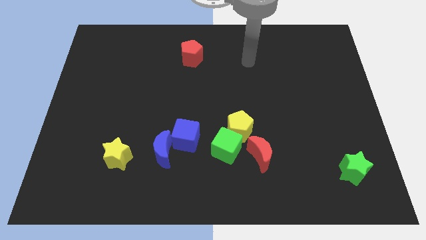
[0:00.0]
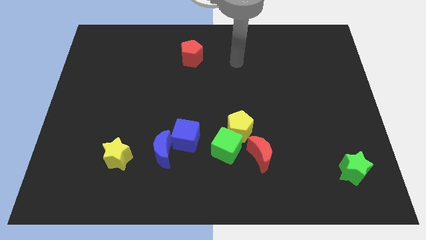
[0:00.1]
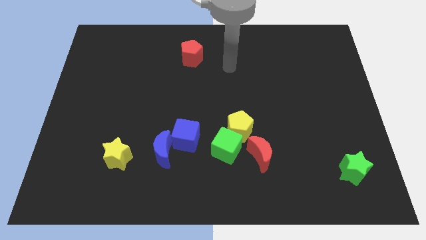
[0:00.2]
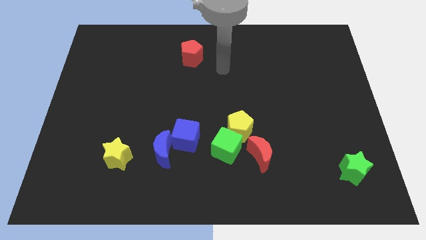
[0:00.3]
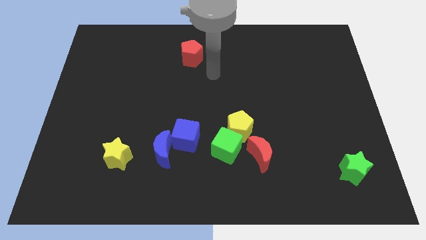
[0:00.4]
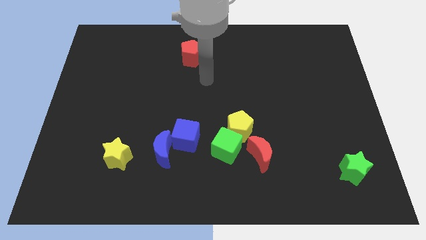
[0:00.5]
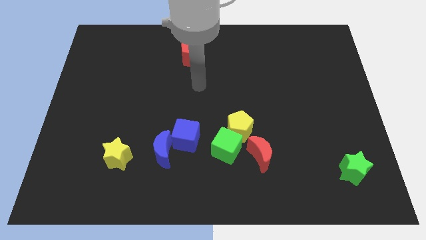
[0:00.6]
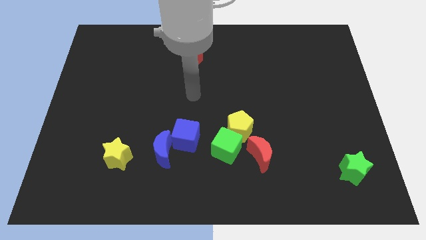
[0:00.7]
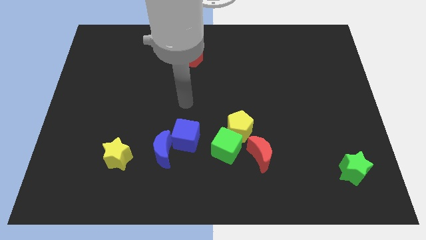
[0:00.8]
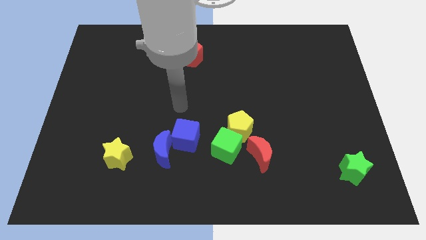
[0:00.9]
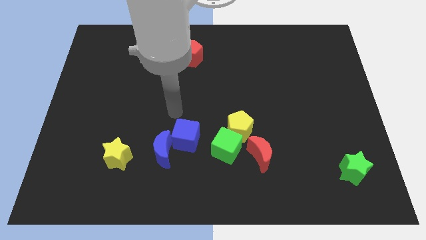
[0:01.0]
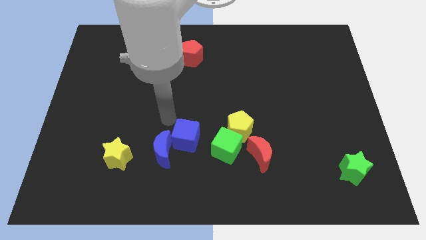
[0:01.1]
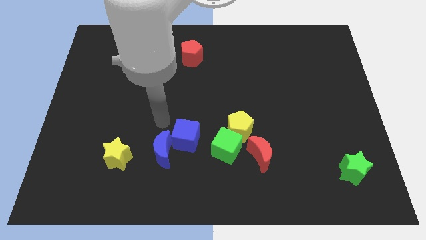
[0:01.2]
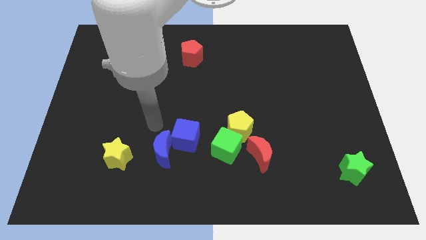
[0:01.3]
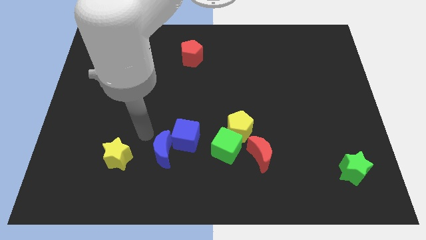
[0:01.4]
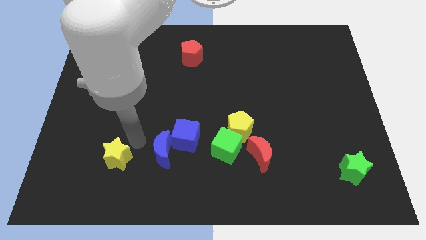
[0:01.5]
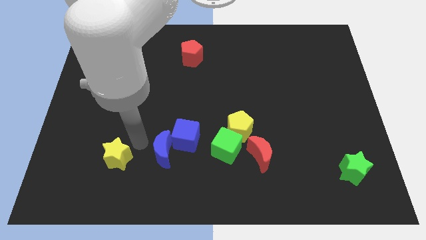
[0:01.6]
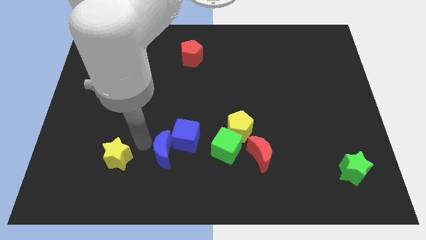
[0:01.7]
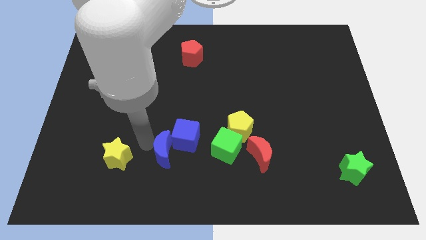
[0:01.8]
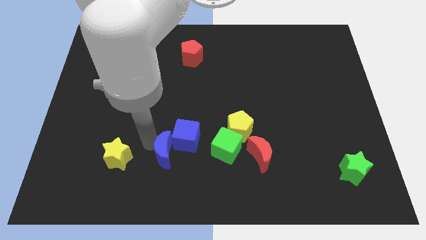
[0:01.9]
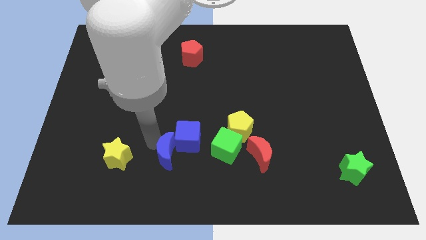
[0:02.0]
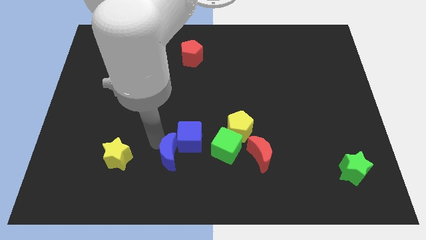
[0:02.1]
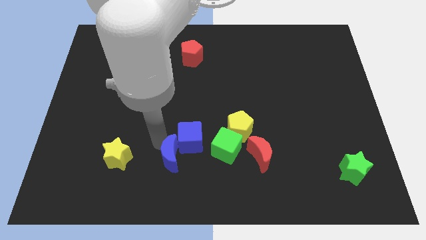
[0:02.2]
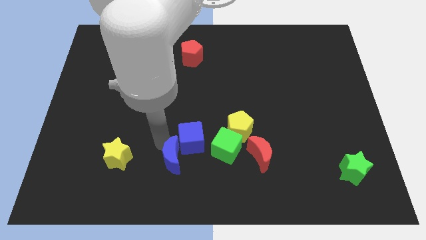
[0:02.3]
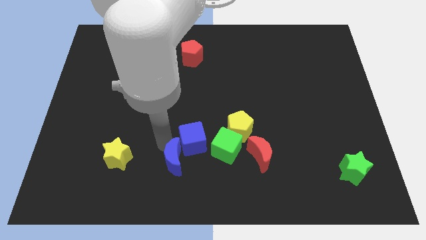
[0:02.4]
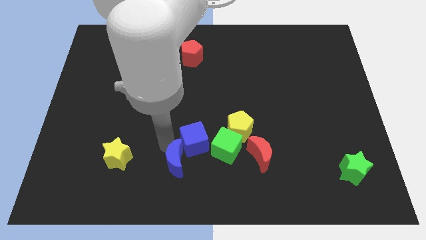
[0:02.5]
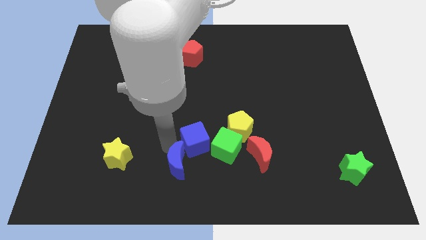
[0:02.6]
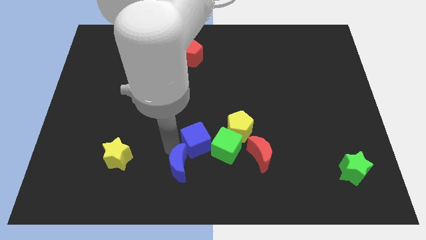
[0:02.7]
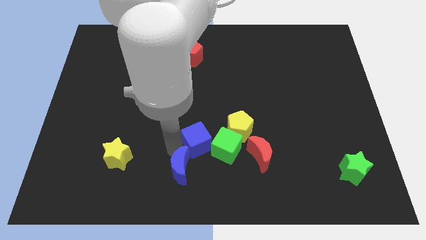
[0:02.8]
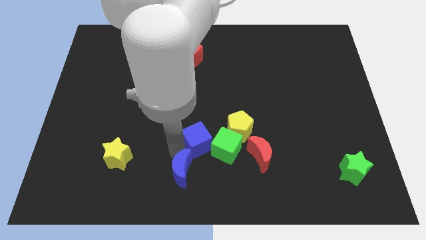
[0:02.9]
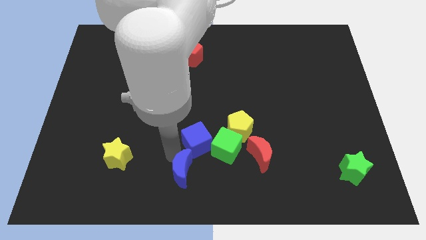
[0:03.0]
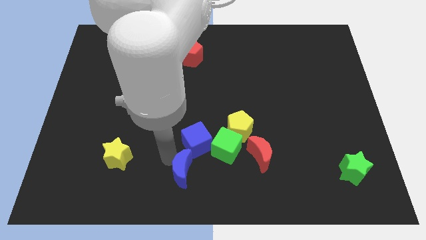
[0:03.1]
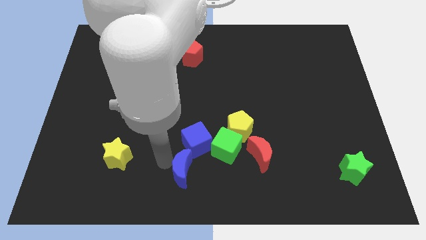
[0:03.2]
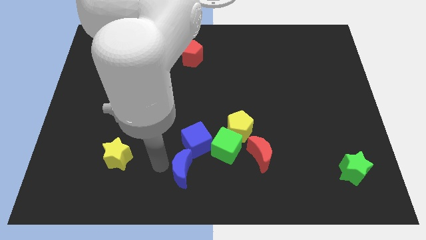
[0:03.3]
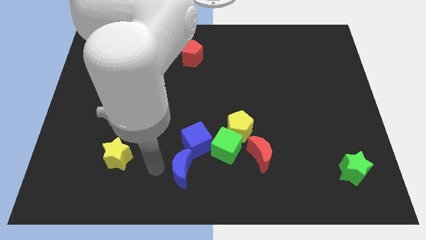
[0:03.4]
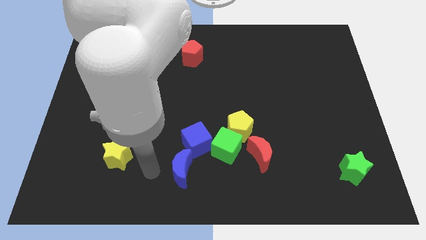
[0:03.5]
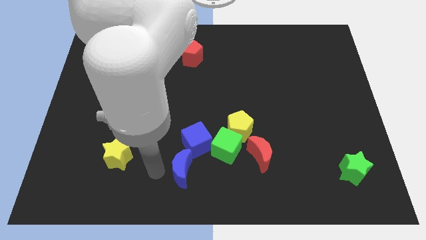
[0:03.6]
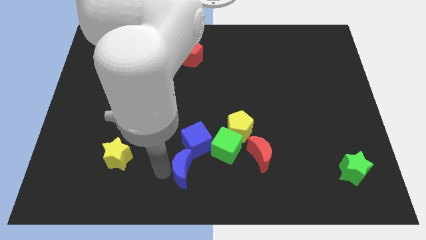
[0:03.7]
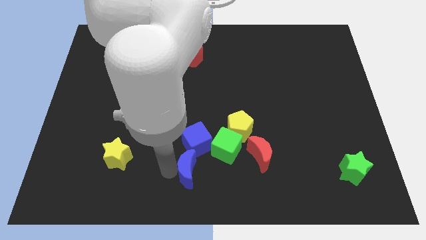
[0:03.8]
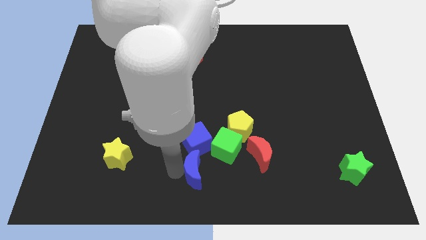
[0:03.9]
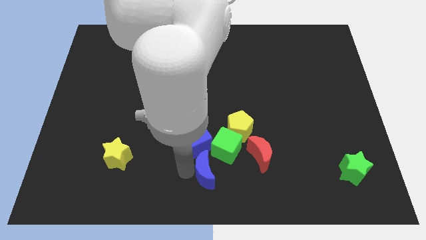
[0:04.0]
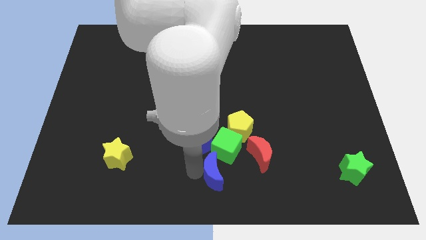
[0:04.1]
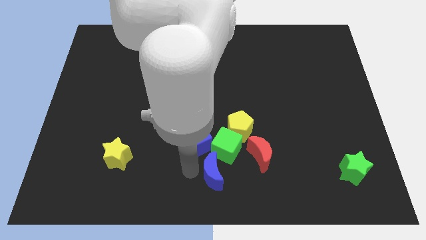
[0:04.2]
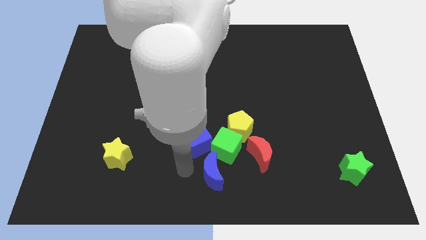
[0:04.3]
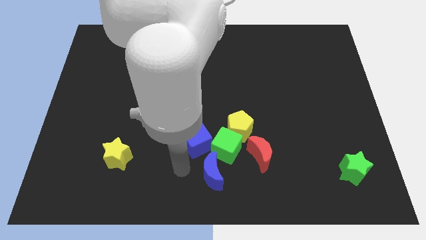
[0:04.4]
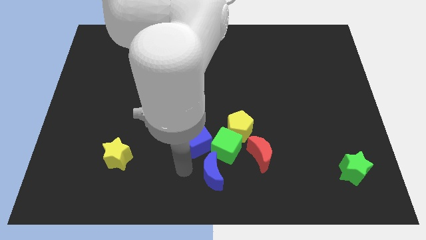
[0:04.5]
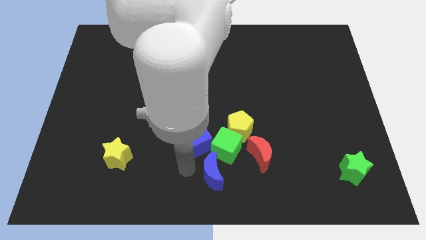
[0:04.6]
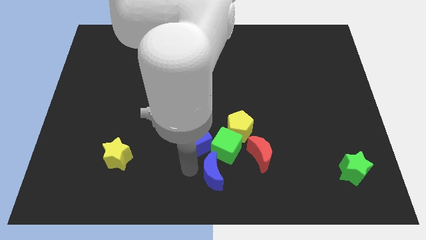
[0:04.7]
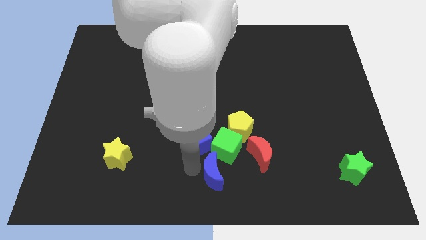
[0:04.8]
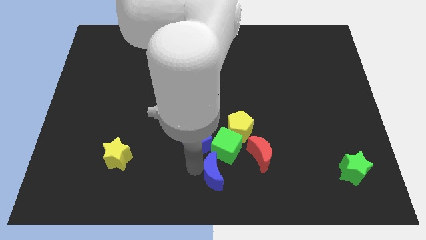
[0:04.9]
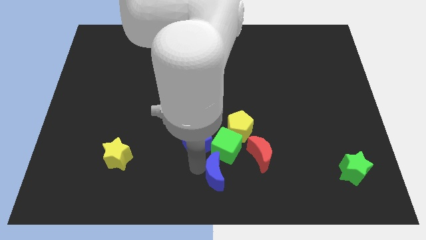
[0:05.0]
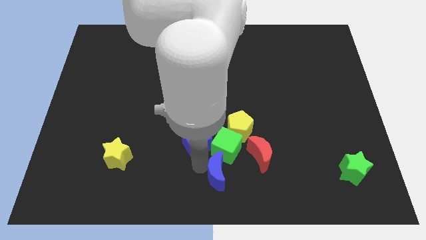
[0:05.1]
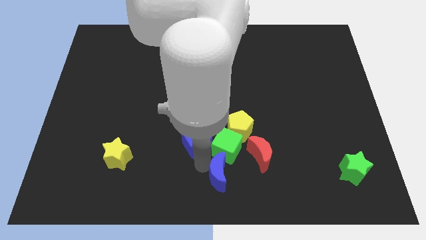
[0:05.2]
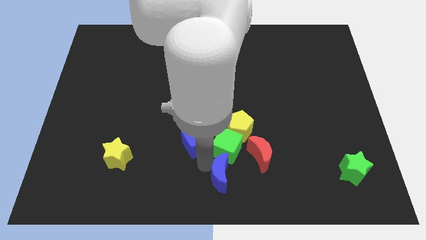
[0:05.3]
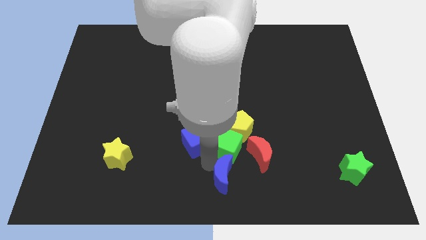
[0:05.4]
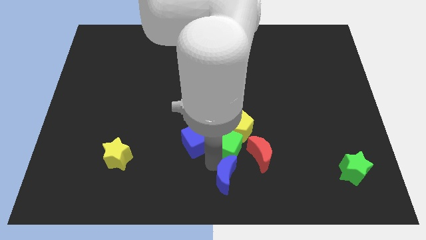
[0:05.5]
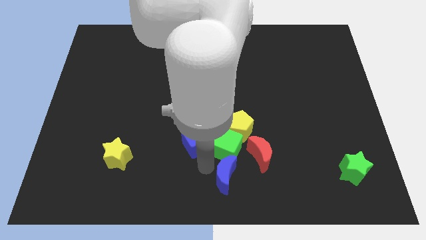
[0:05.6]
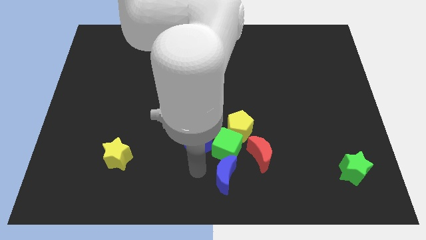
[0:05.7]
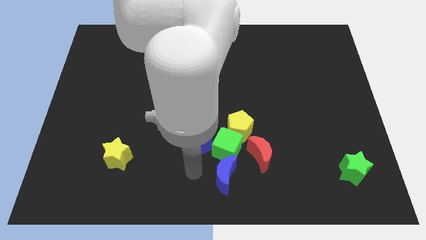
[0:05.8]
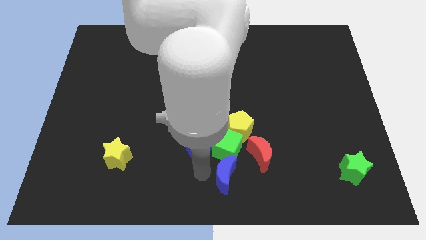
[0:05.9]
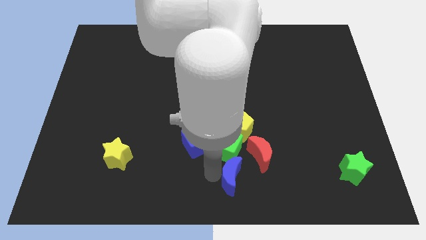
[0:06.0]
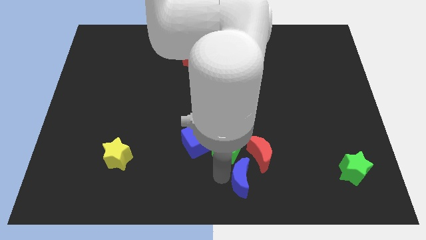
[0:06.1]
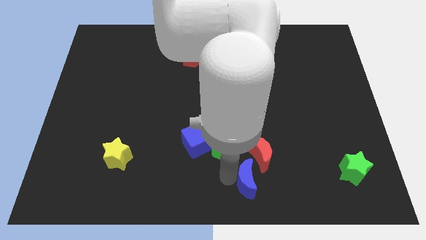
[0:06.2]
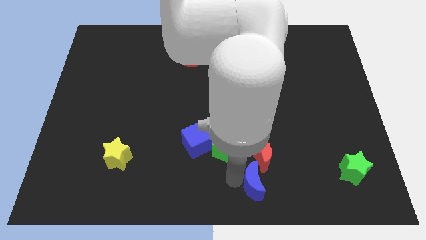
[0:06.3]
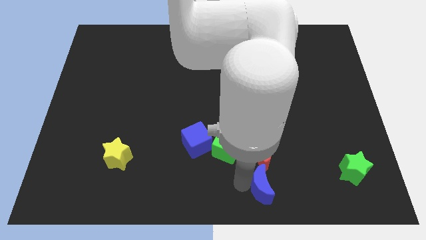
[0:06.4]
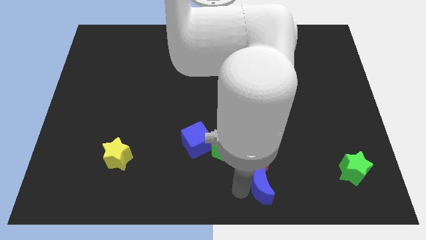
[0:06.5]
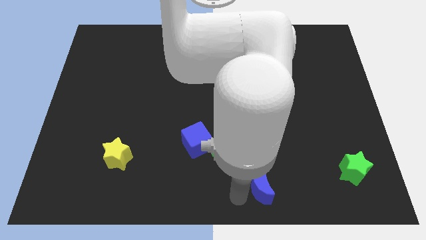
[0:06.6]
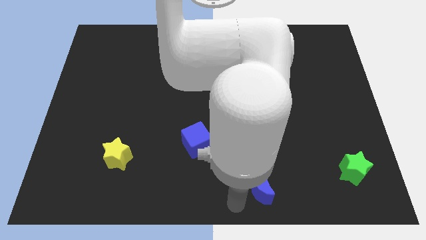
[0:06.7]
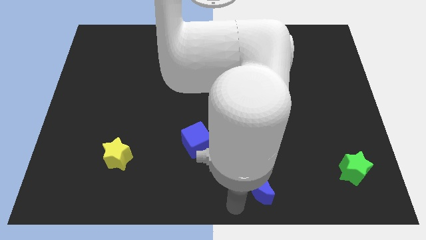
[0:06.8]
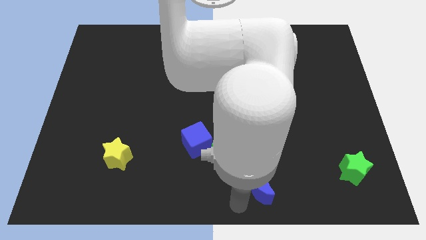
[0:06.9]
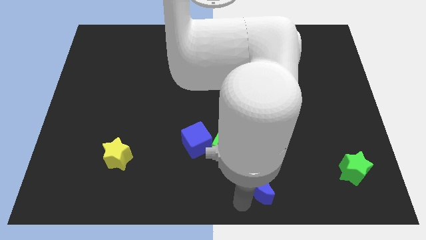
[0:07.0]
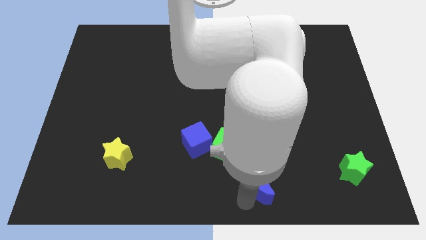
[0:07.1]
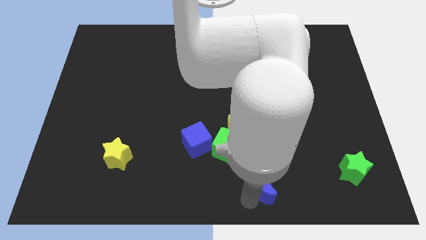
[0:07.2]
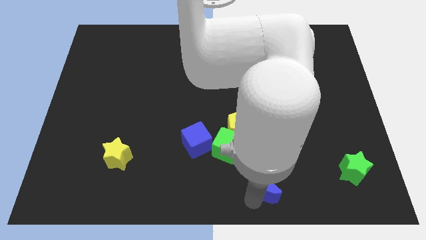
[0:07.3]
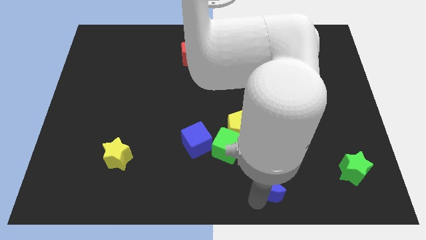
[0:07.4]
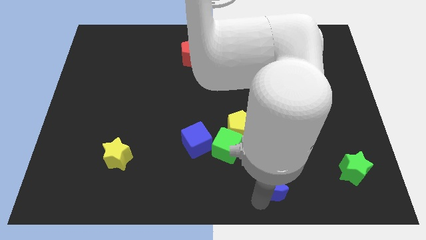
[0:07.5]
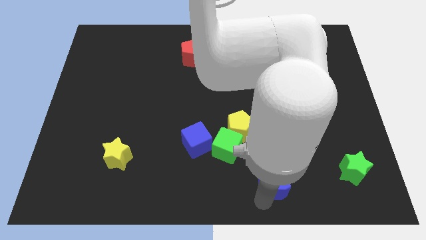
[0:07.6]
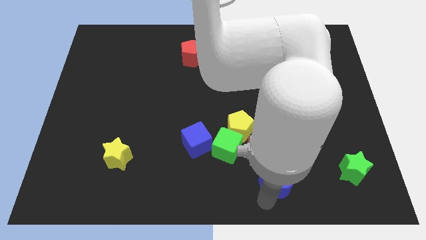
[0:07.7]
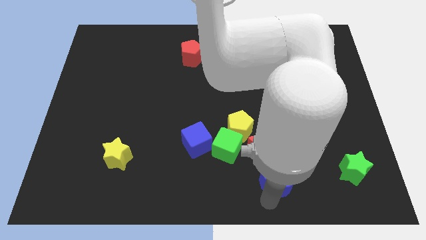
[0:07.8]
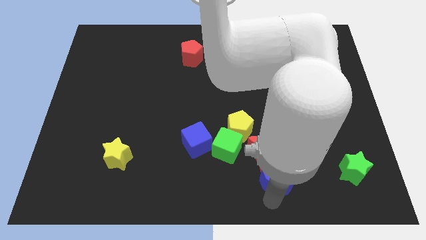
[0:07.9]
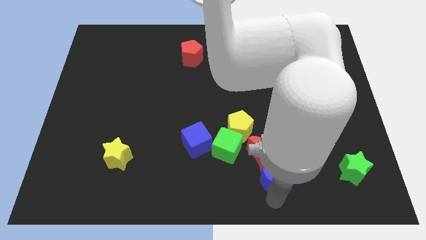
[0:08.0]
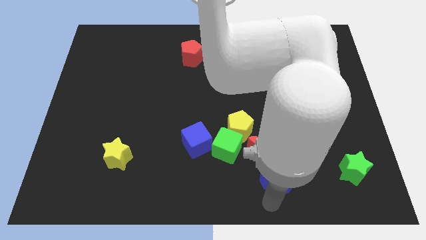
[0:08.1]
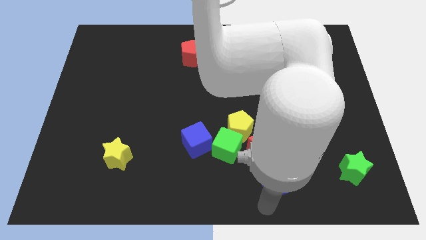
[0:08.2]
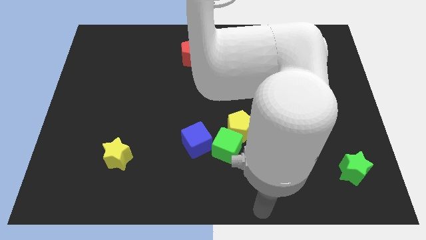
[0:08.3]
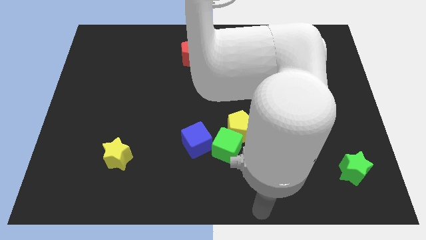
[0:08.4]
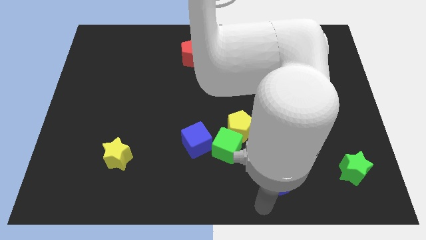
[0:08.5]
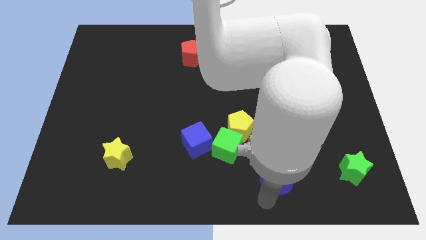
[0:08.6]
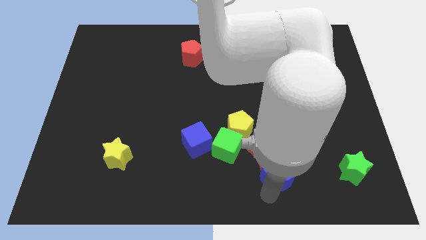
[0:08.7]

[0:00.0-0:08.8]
slide the blue moon just left of the green star
